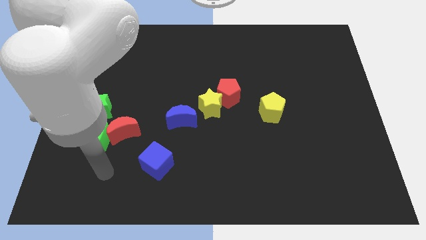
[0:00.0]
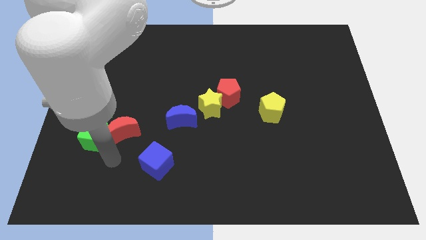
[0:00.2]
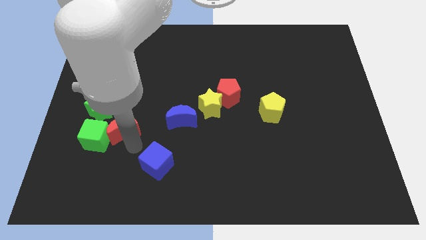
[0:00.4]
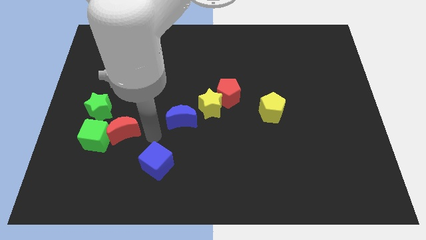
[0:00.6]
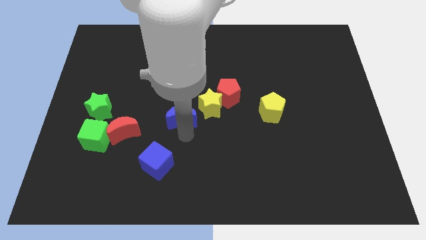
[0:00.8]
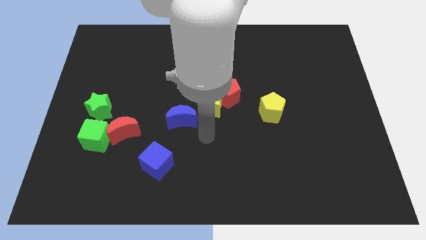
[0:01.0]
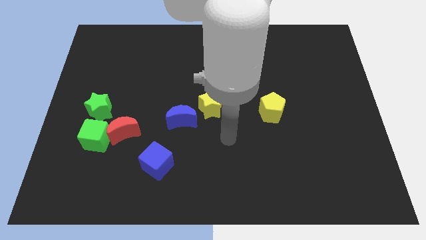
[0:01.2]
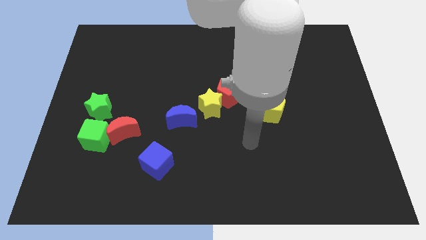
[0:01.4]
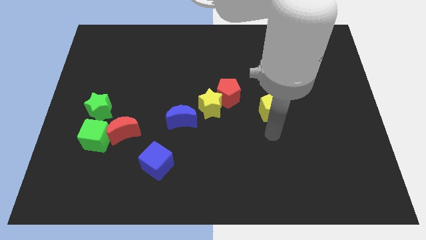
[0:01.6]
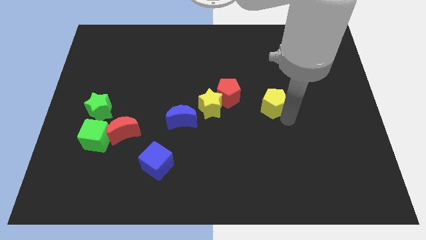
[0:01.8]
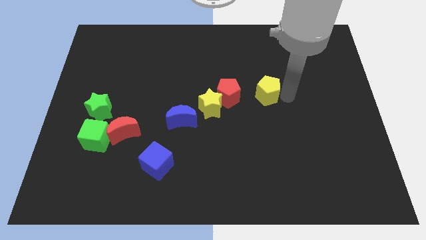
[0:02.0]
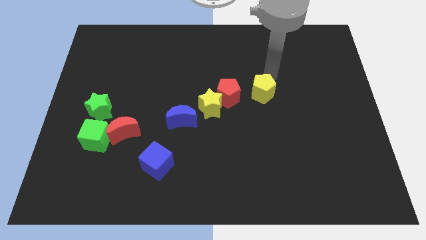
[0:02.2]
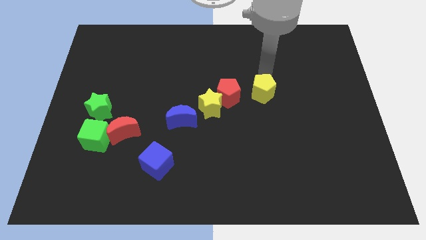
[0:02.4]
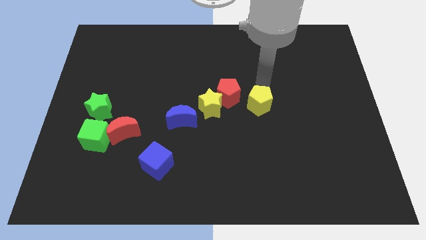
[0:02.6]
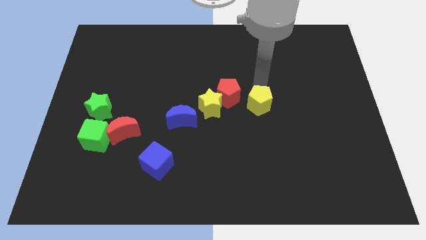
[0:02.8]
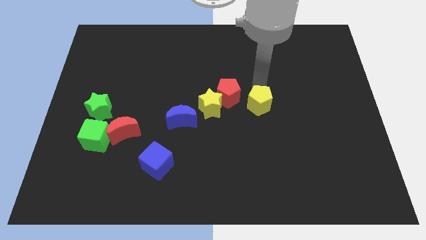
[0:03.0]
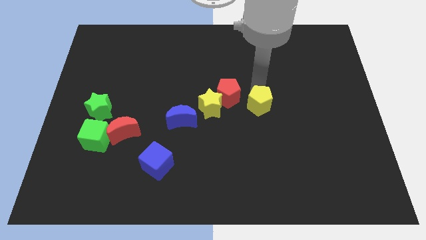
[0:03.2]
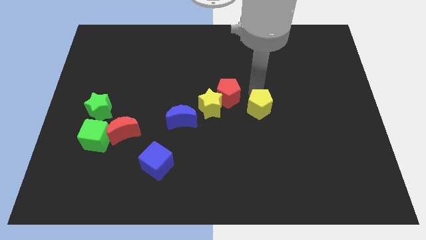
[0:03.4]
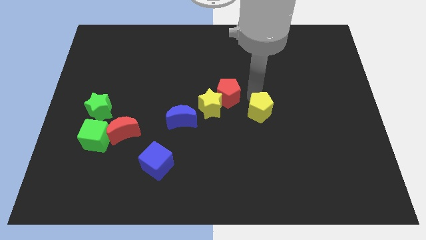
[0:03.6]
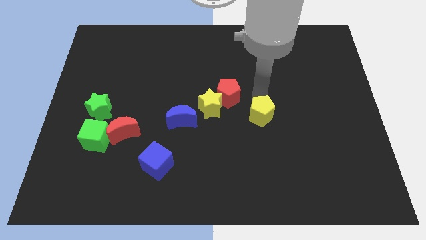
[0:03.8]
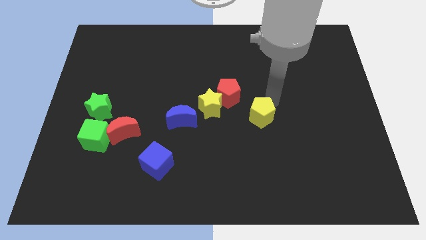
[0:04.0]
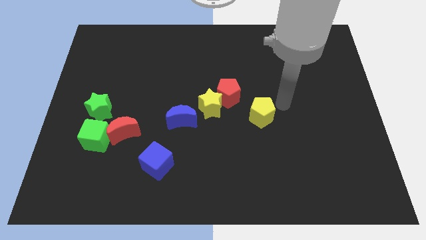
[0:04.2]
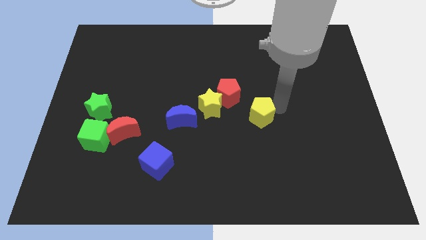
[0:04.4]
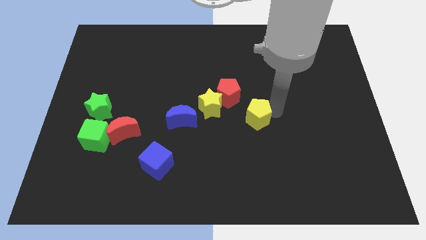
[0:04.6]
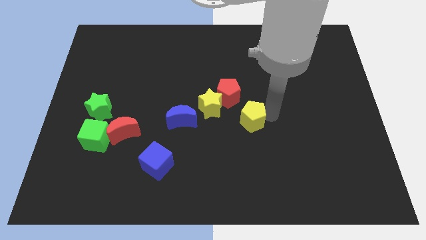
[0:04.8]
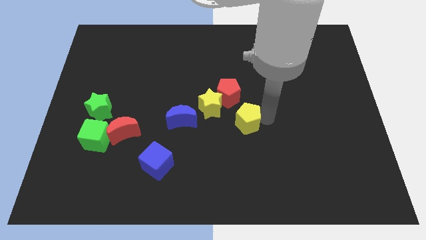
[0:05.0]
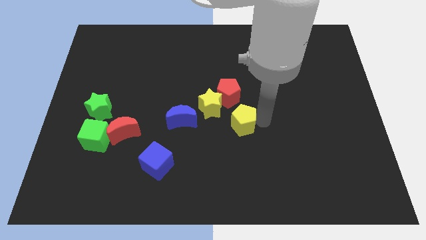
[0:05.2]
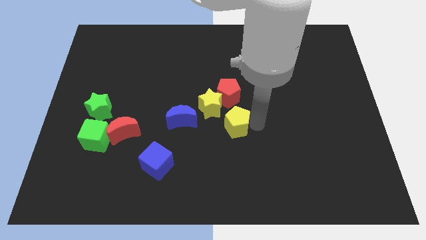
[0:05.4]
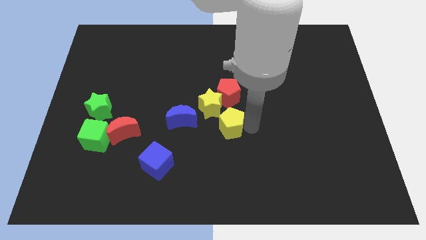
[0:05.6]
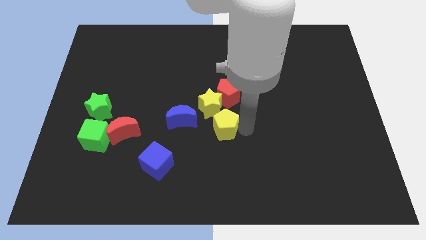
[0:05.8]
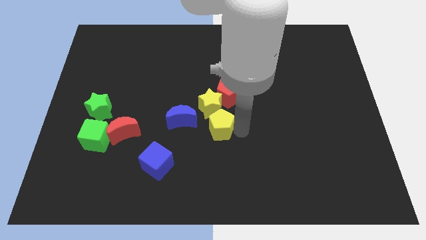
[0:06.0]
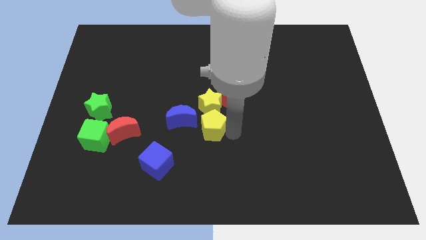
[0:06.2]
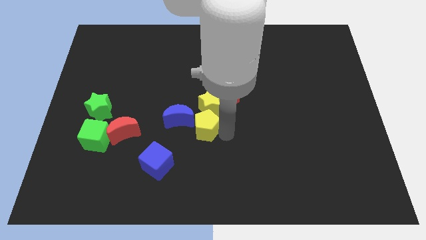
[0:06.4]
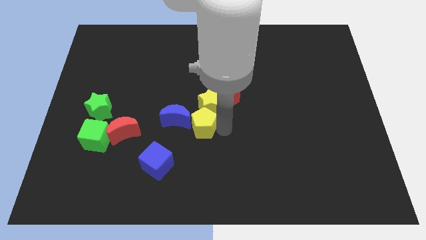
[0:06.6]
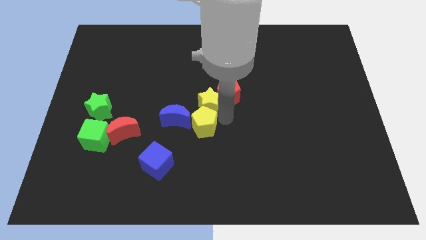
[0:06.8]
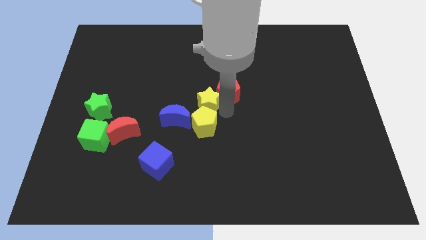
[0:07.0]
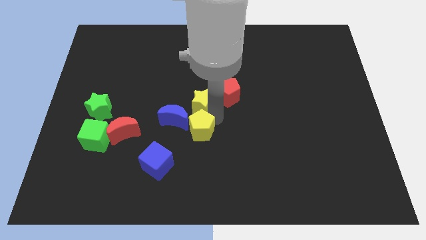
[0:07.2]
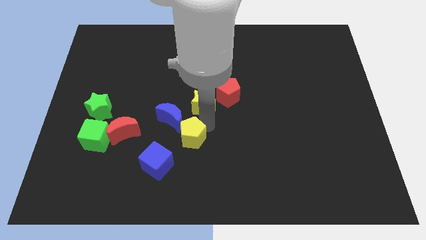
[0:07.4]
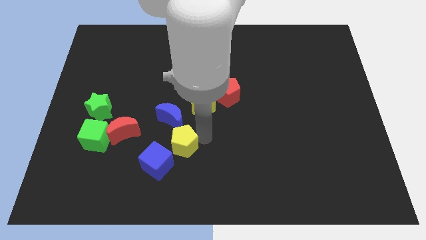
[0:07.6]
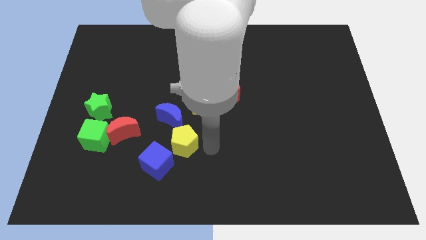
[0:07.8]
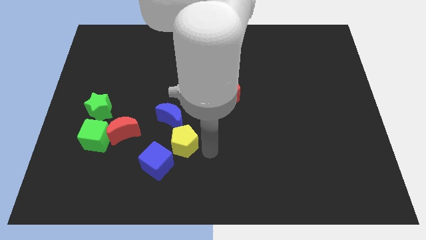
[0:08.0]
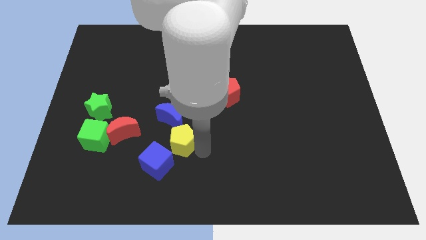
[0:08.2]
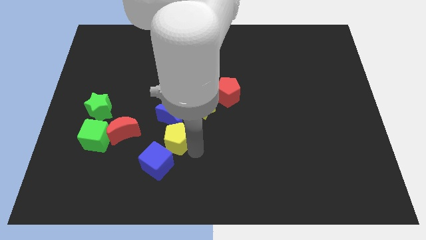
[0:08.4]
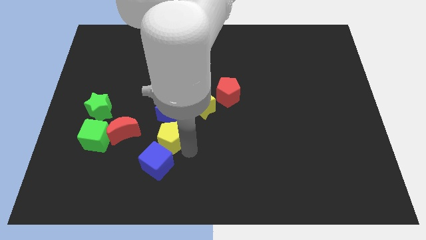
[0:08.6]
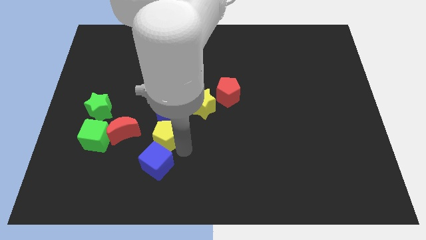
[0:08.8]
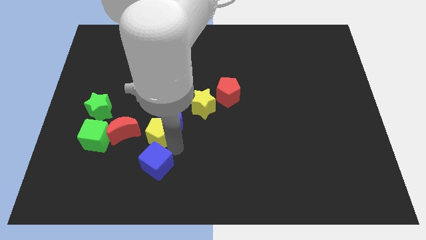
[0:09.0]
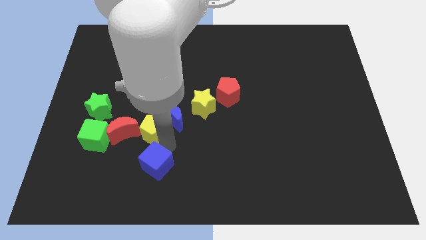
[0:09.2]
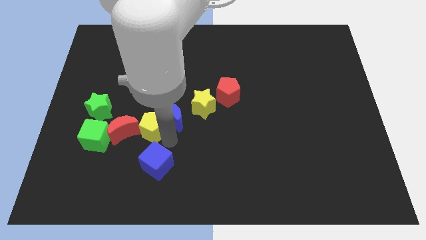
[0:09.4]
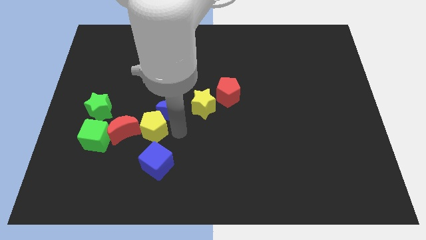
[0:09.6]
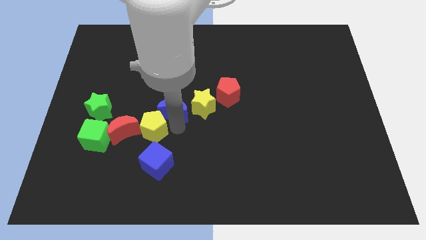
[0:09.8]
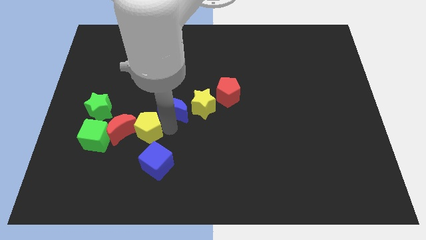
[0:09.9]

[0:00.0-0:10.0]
slide the yellow pentagon close to the red moon

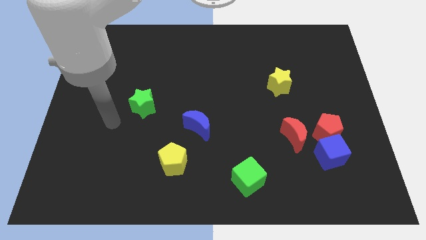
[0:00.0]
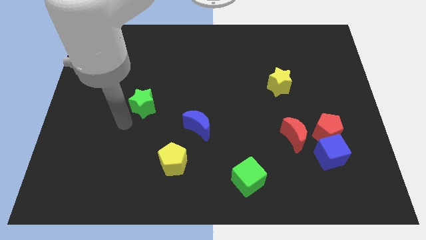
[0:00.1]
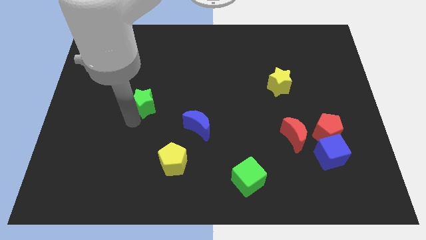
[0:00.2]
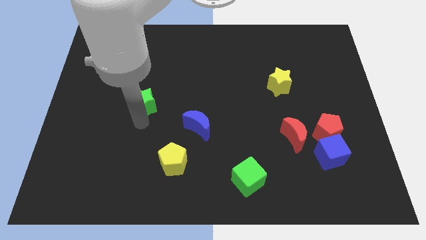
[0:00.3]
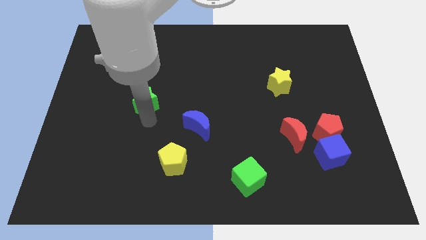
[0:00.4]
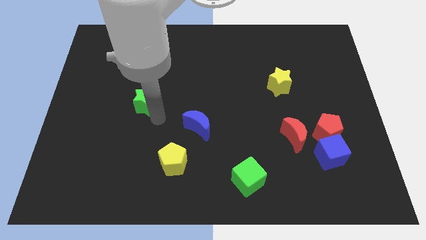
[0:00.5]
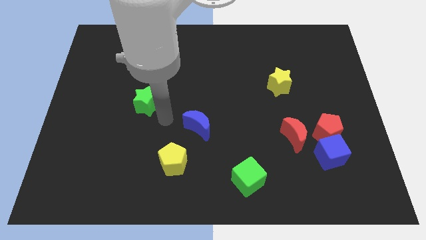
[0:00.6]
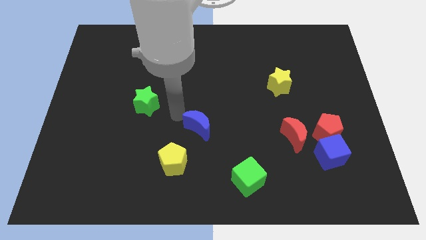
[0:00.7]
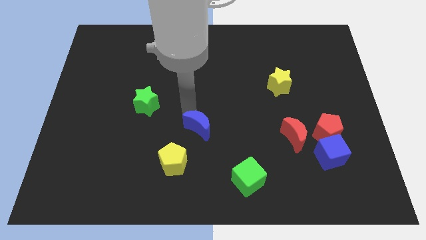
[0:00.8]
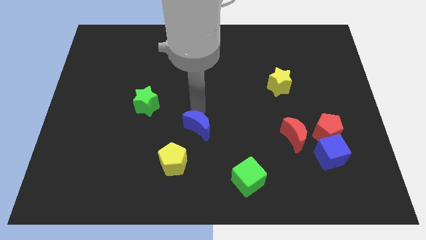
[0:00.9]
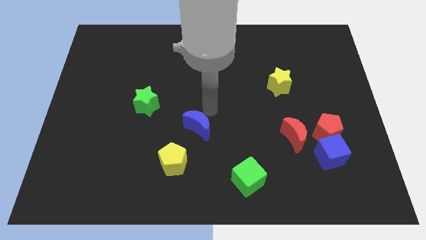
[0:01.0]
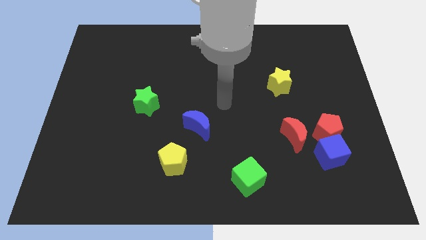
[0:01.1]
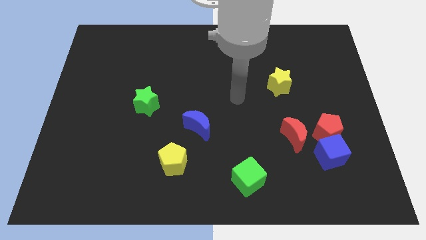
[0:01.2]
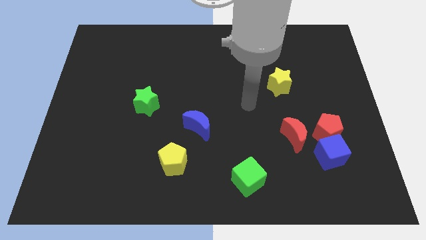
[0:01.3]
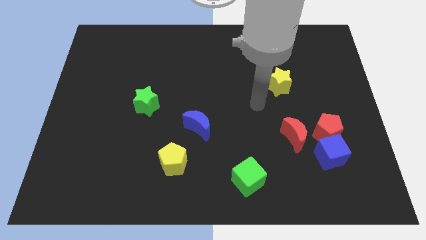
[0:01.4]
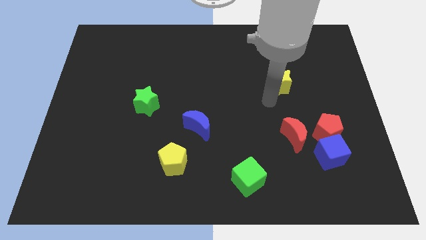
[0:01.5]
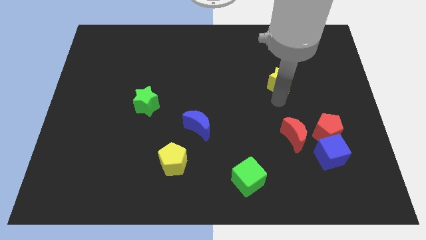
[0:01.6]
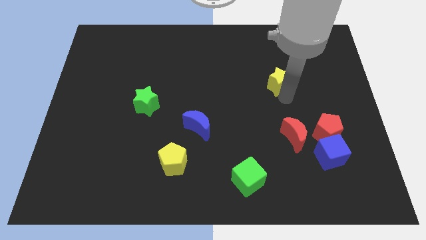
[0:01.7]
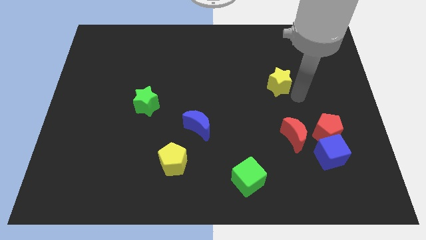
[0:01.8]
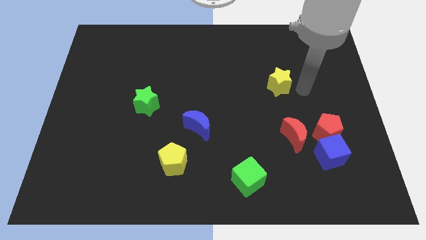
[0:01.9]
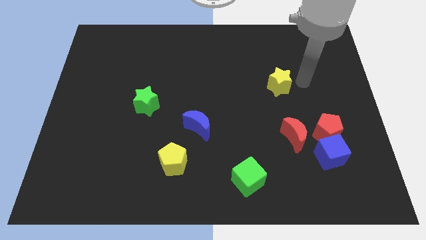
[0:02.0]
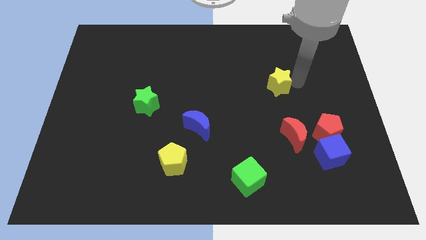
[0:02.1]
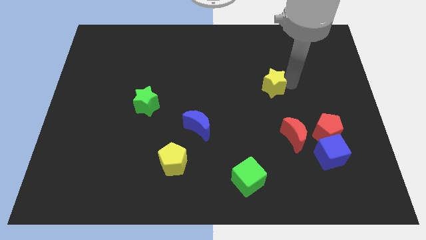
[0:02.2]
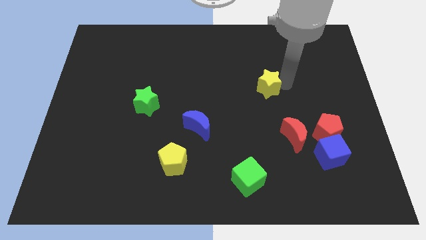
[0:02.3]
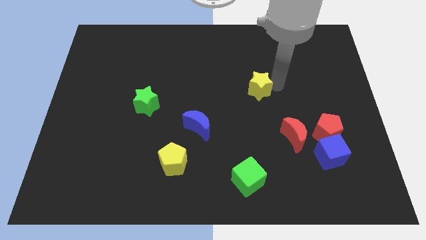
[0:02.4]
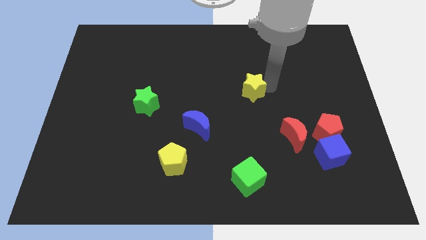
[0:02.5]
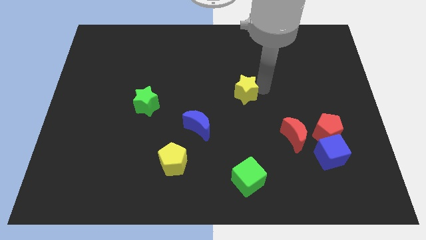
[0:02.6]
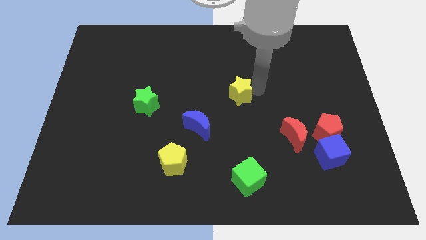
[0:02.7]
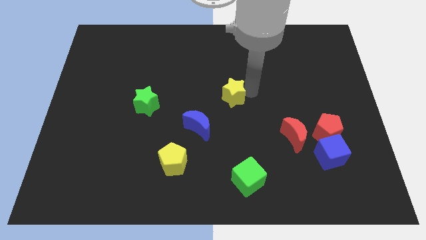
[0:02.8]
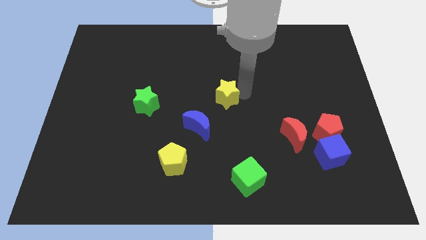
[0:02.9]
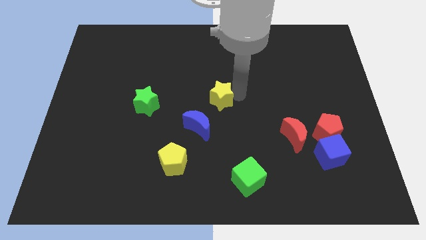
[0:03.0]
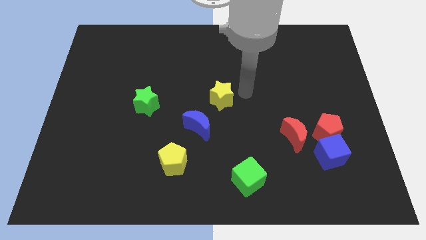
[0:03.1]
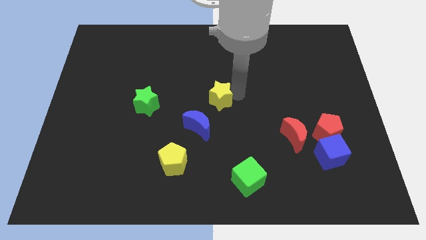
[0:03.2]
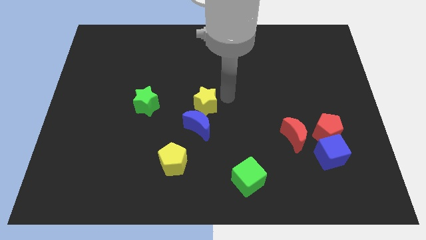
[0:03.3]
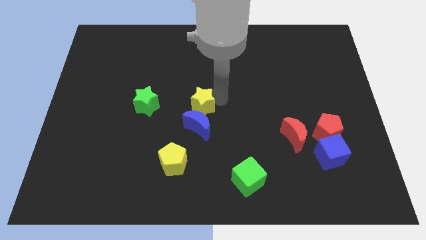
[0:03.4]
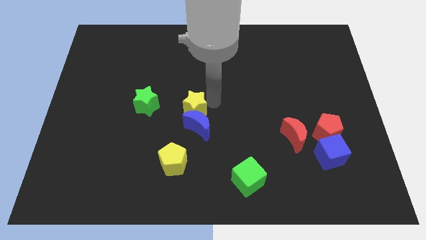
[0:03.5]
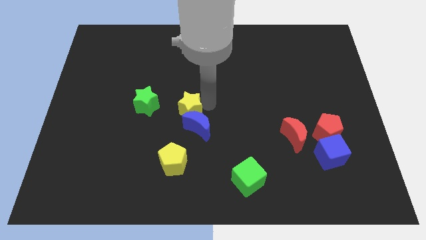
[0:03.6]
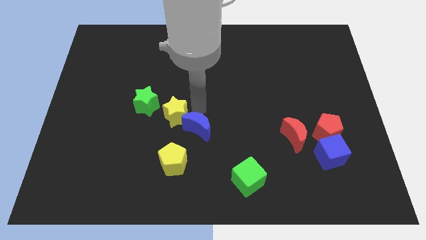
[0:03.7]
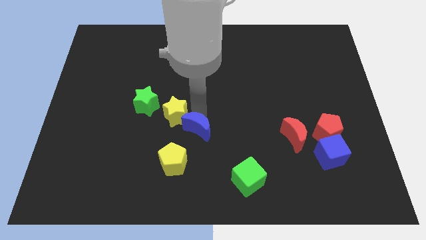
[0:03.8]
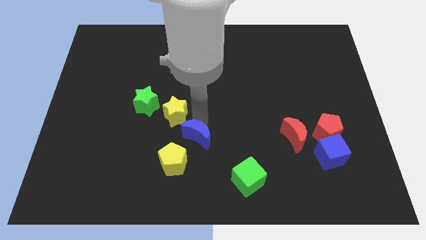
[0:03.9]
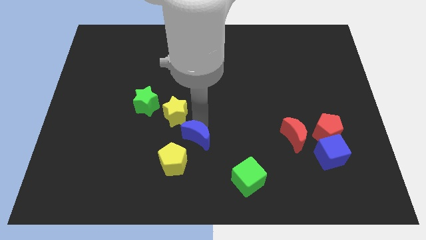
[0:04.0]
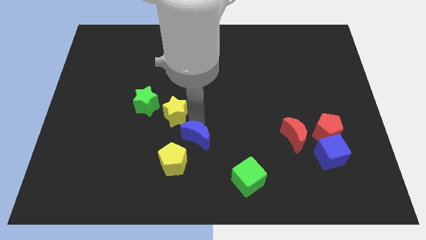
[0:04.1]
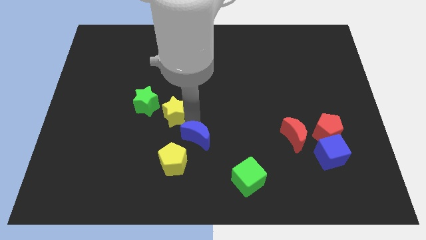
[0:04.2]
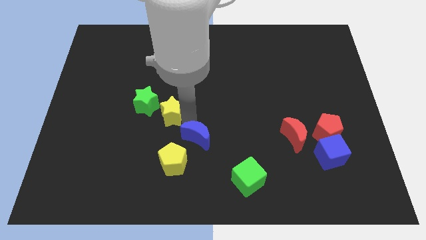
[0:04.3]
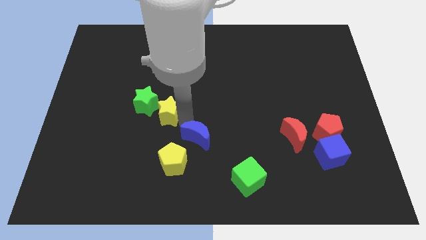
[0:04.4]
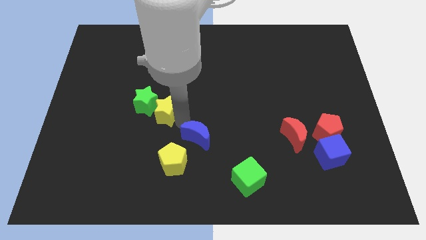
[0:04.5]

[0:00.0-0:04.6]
move the yellow star close to the green star
